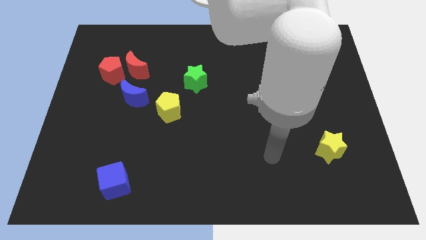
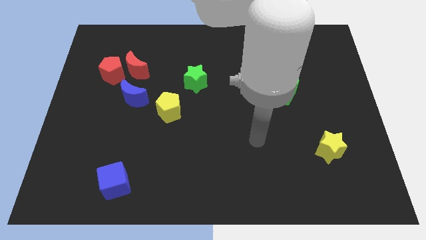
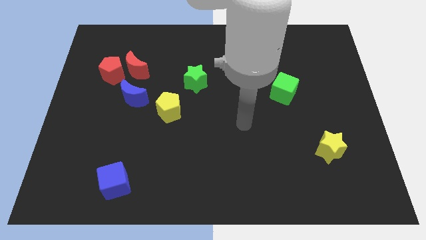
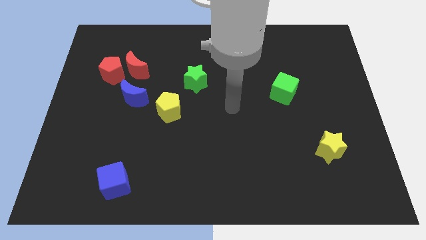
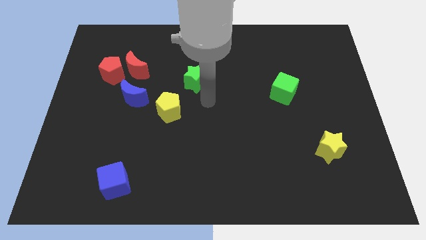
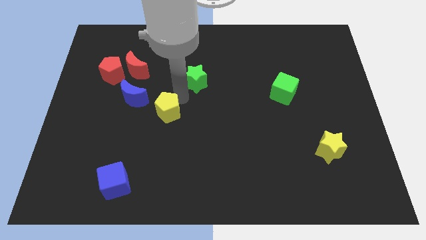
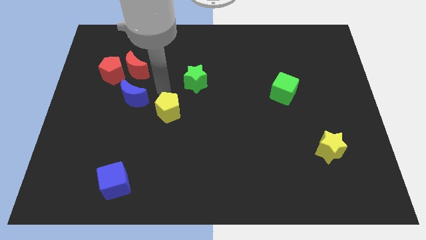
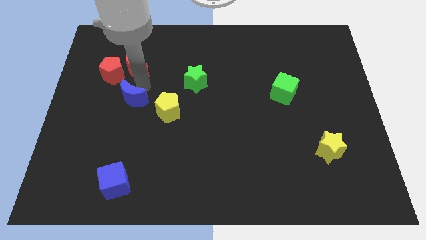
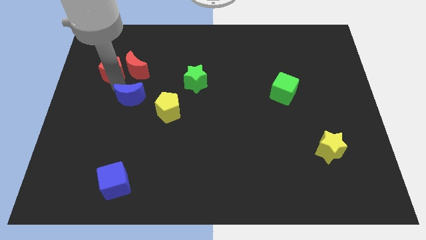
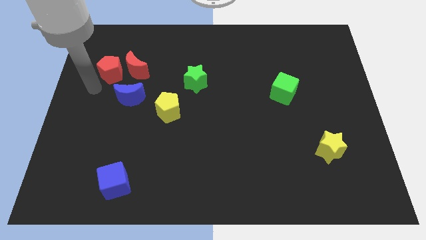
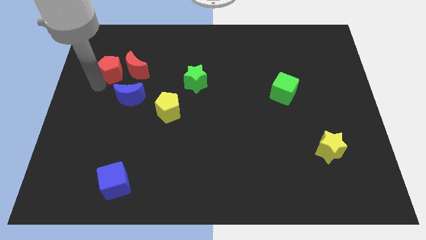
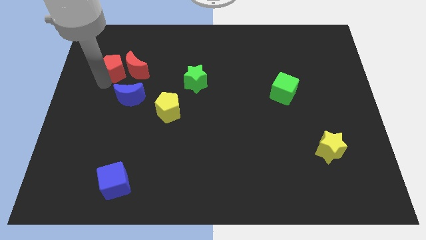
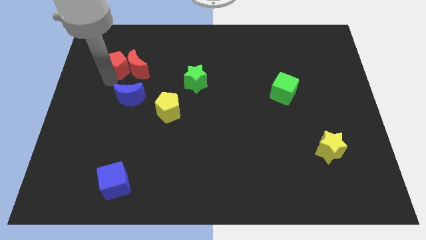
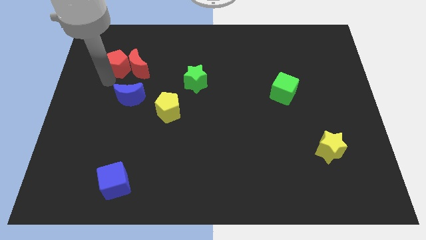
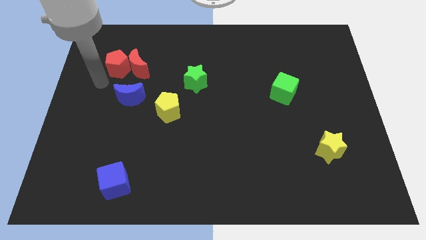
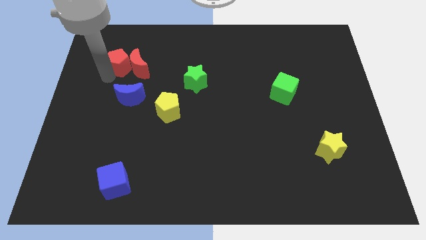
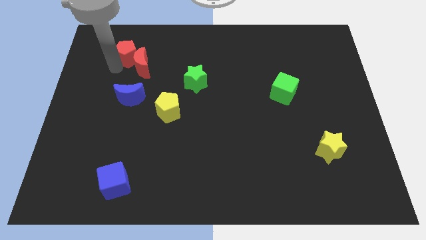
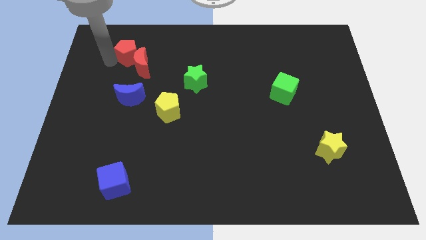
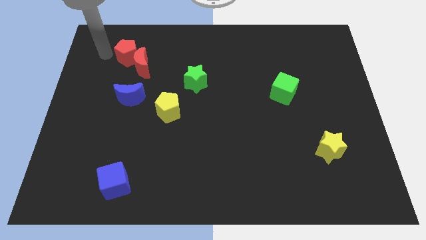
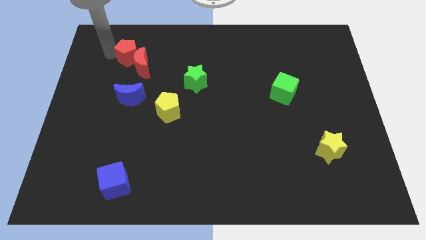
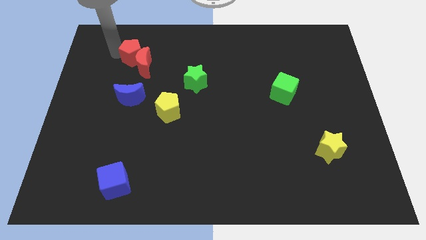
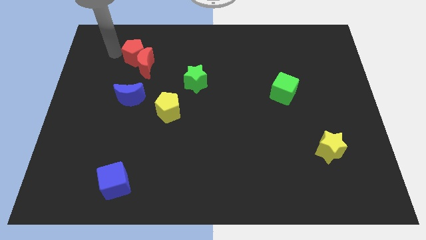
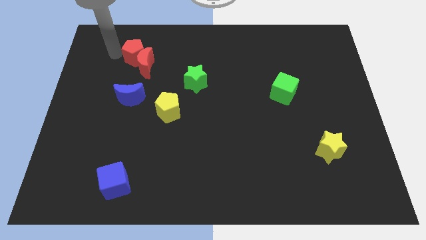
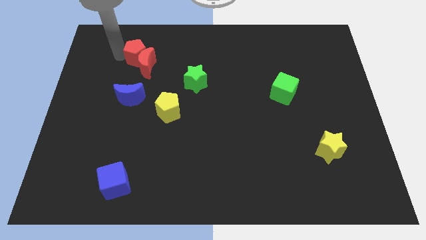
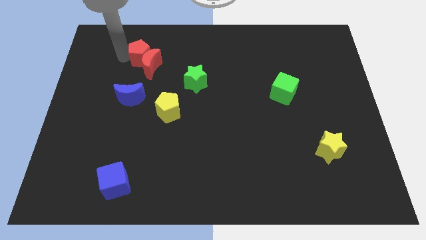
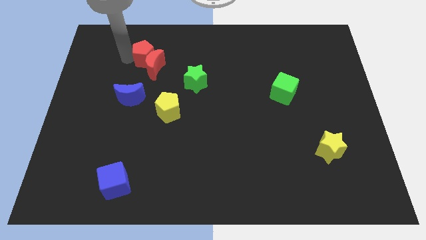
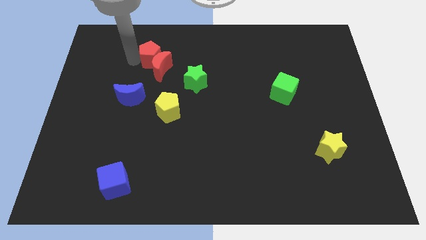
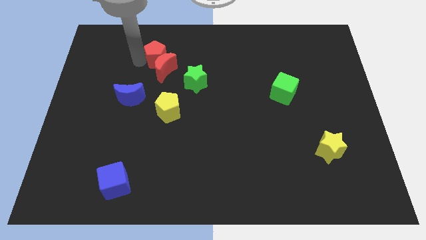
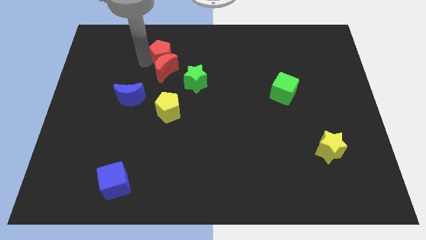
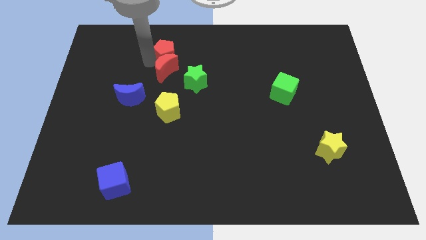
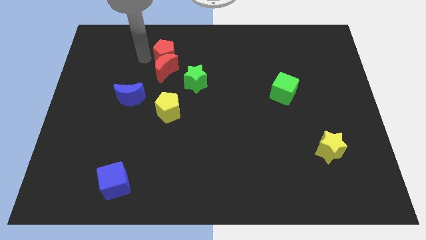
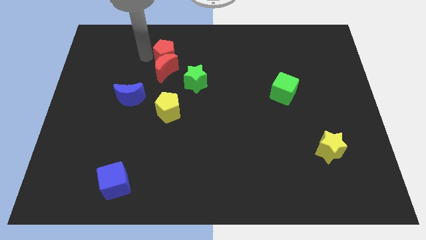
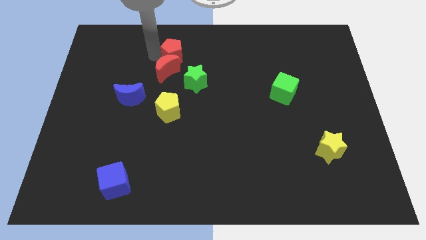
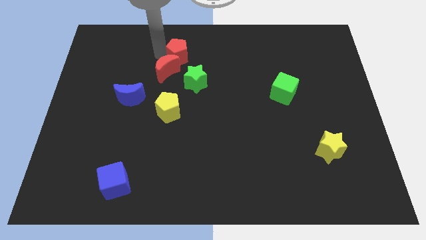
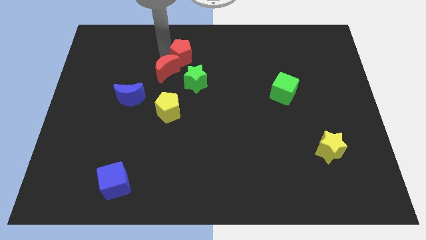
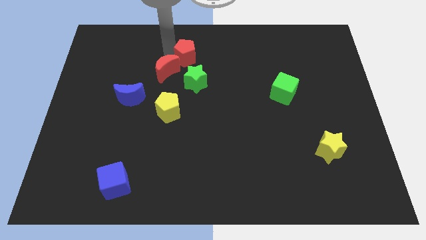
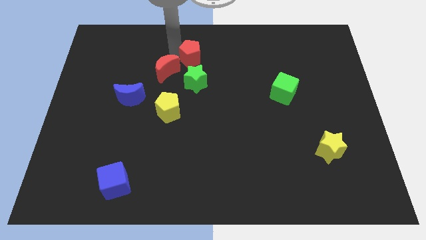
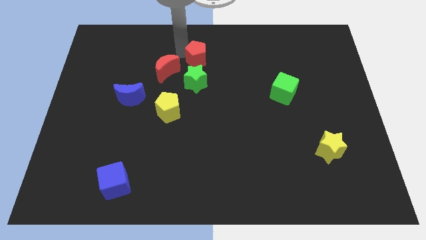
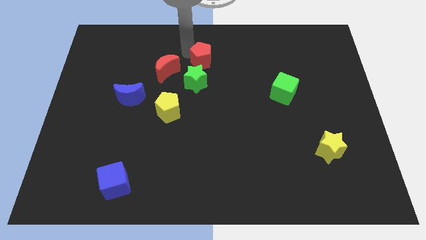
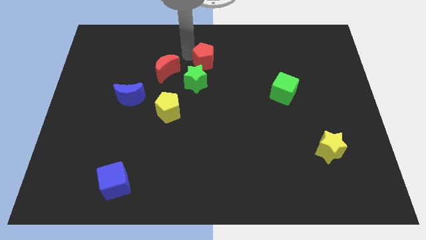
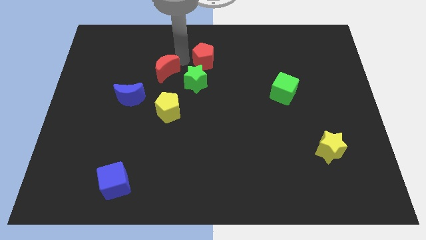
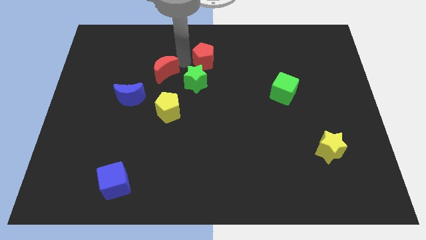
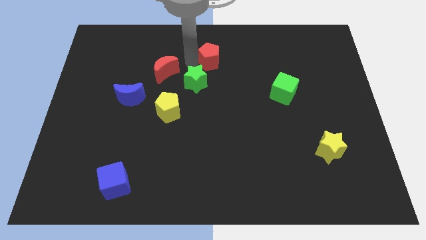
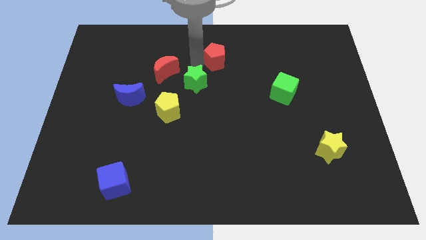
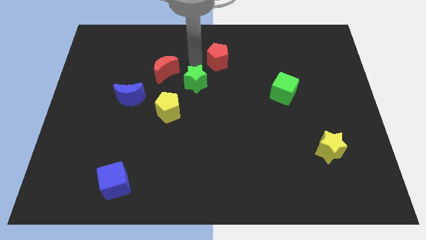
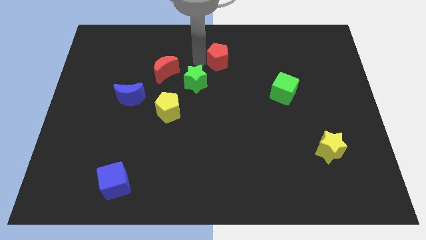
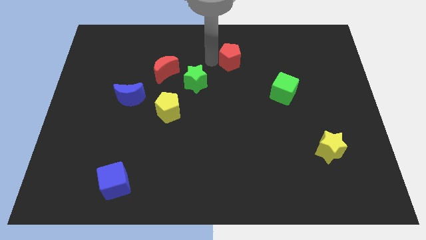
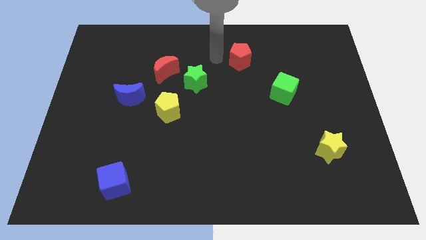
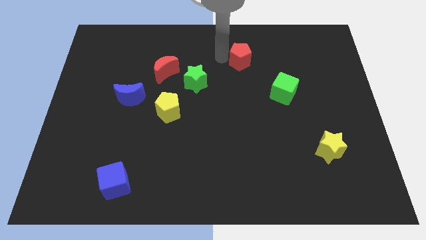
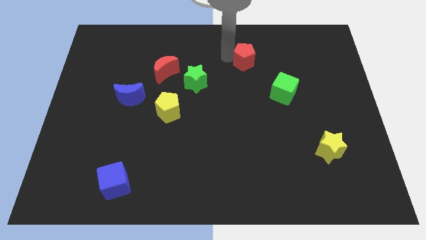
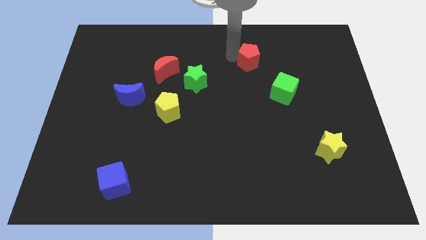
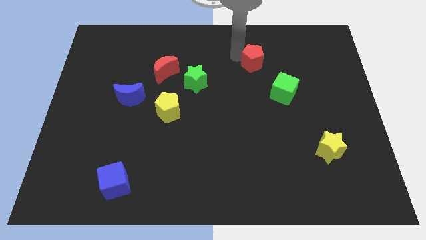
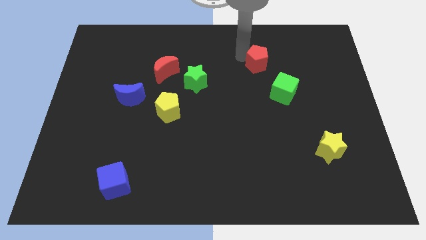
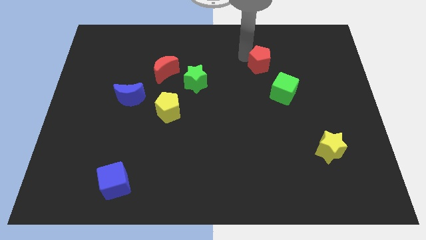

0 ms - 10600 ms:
move the red pentagon to the top of the green cube

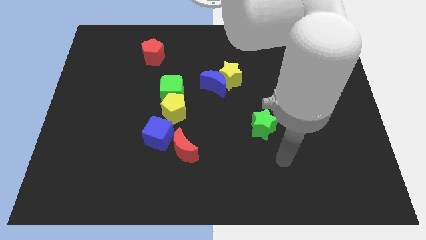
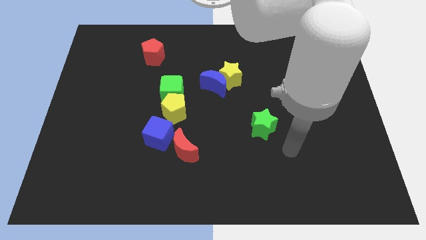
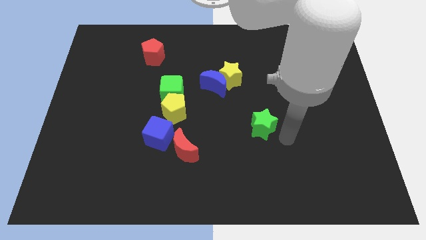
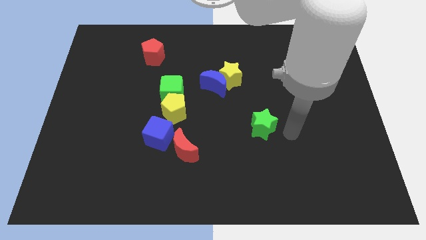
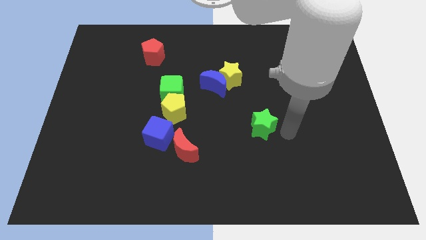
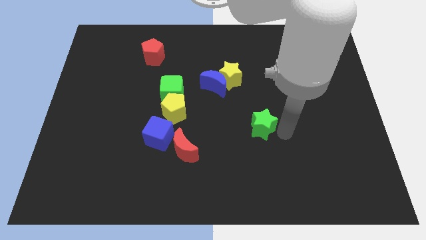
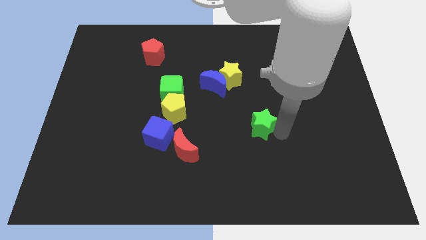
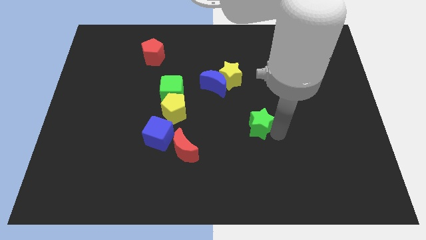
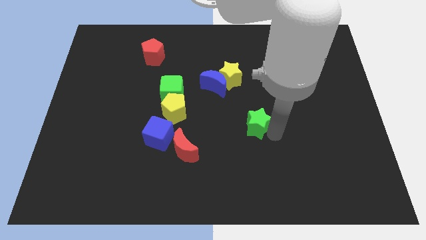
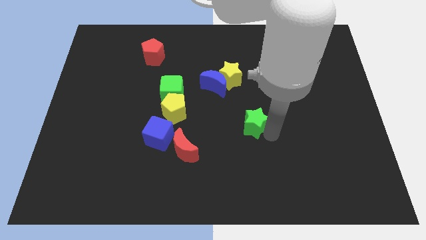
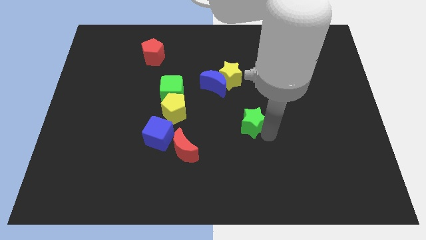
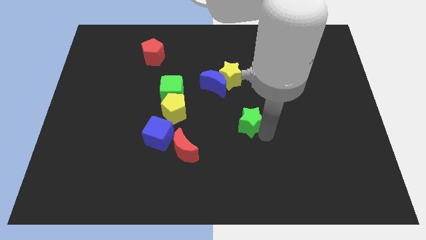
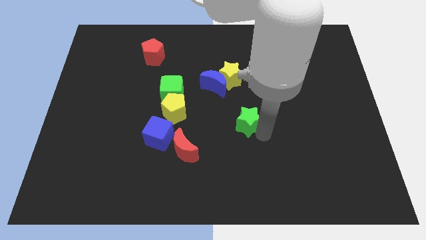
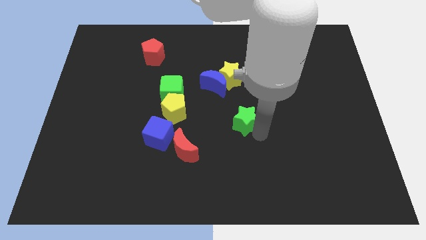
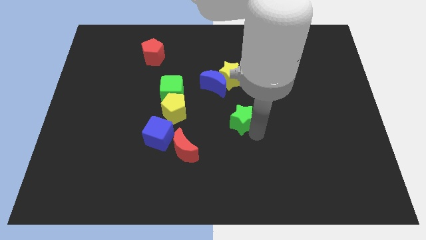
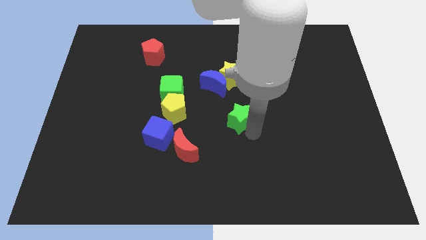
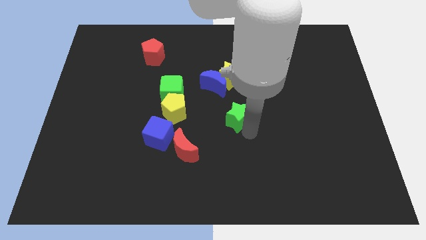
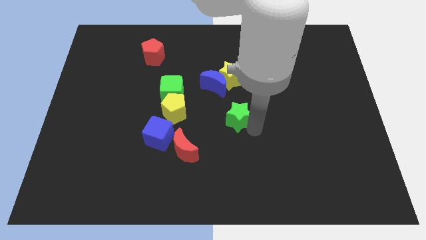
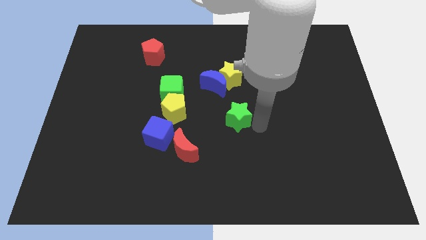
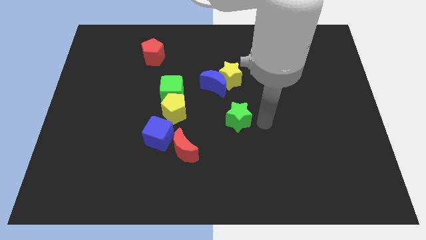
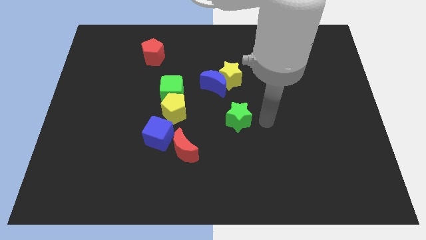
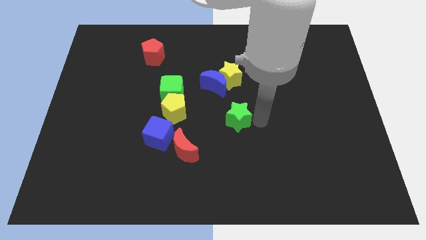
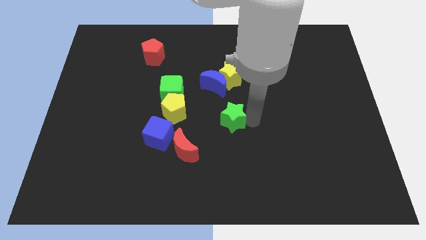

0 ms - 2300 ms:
push the green star to the bottom of the blue moon

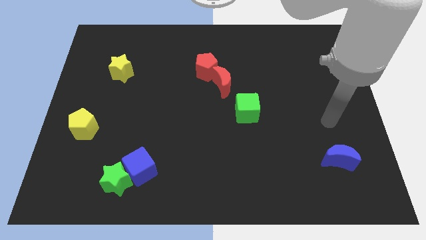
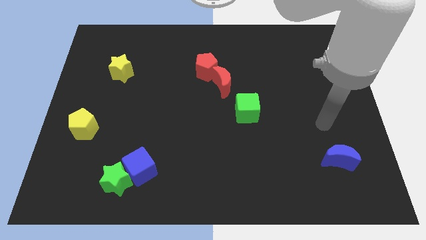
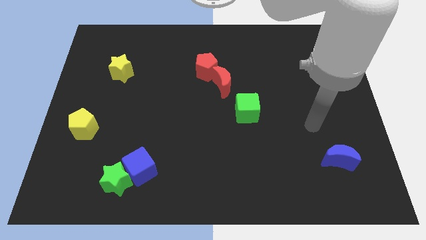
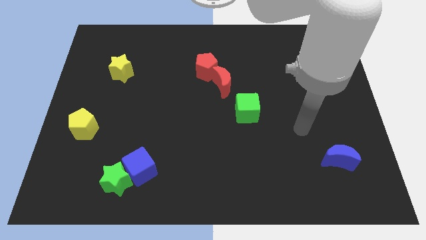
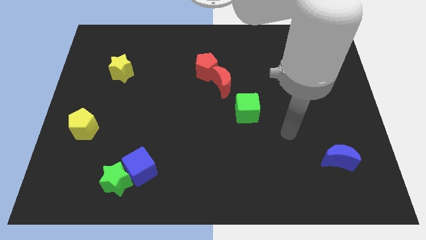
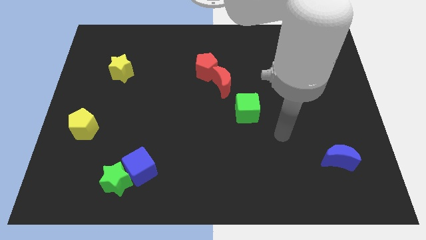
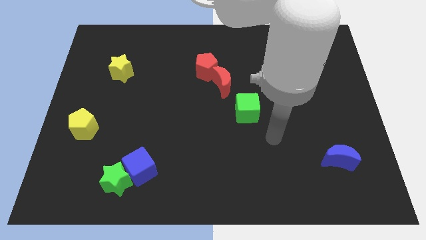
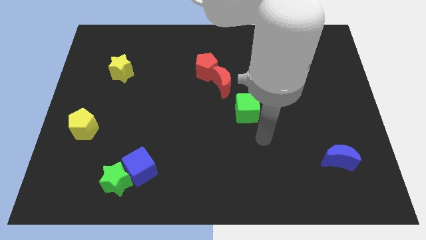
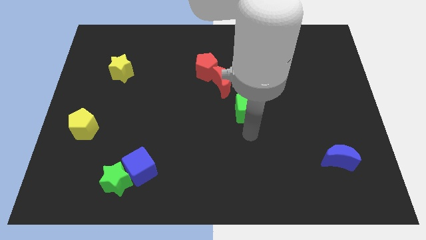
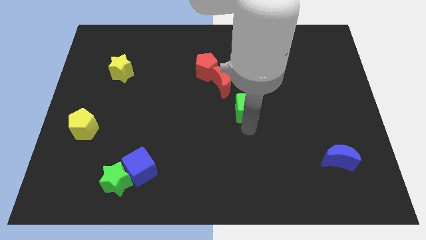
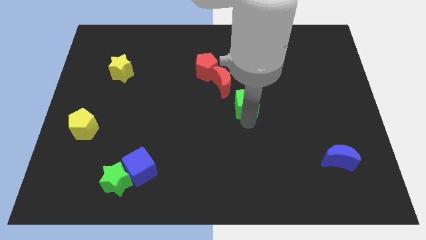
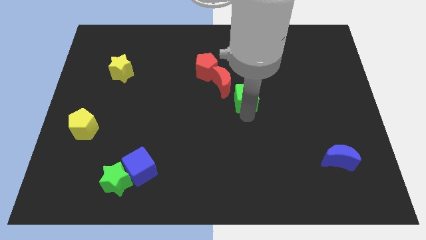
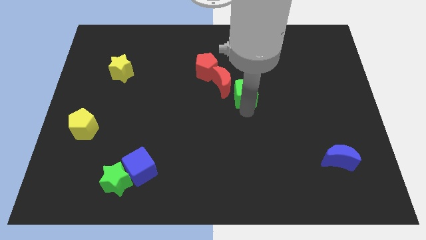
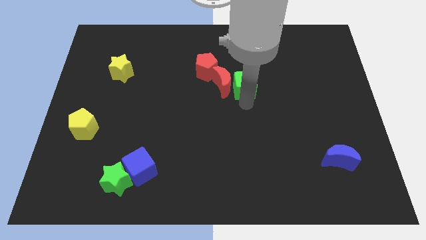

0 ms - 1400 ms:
put the green cube diagonally up and to the right of the red moon
